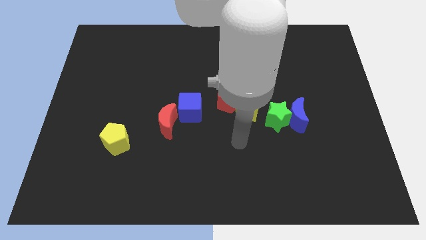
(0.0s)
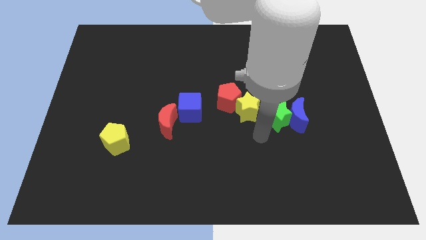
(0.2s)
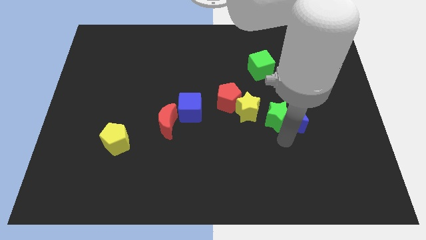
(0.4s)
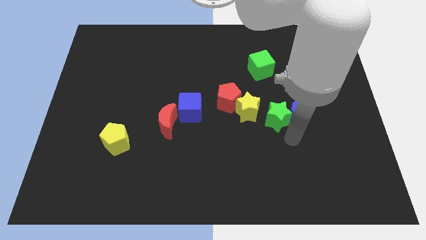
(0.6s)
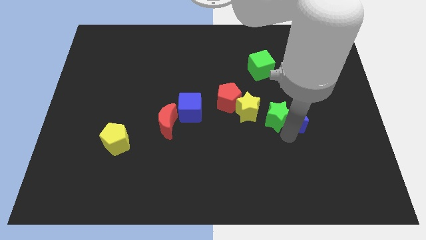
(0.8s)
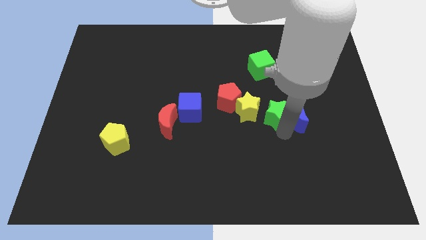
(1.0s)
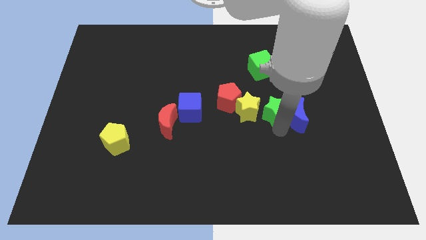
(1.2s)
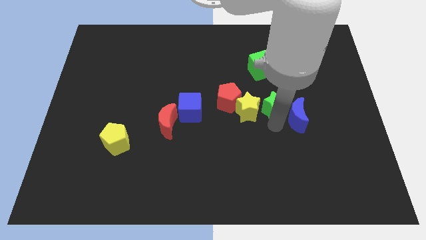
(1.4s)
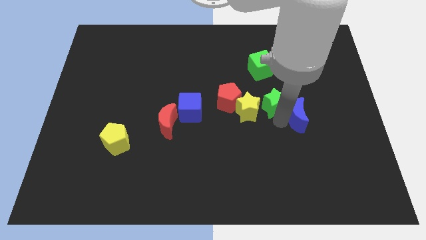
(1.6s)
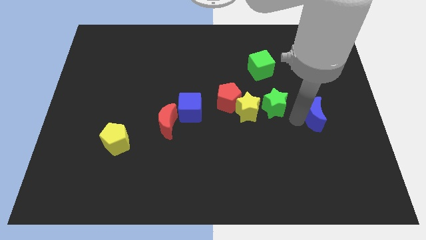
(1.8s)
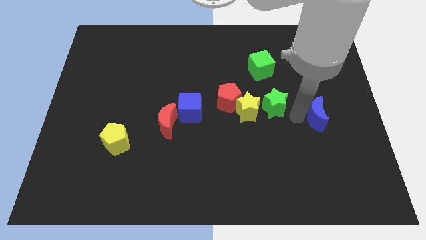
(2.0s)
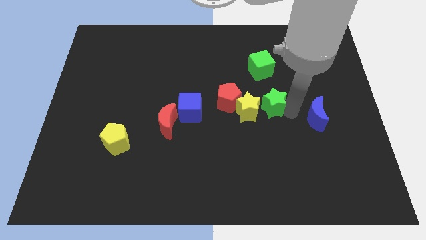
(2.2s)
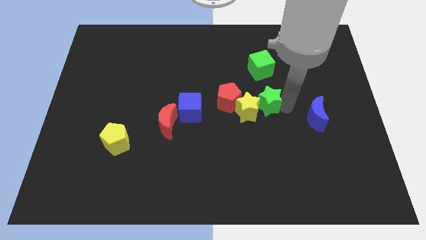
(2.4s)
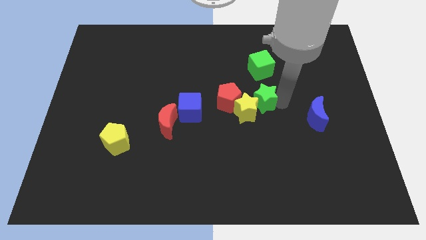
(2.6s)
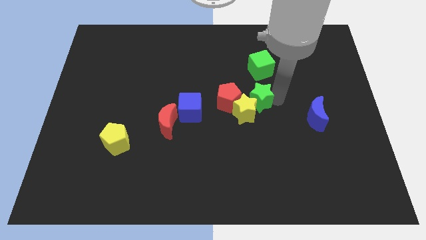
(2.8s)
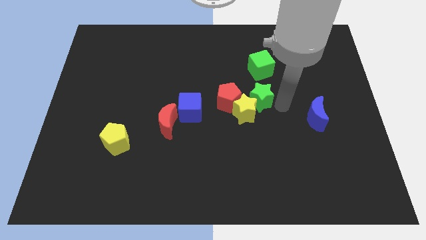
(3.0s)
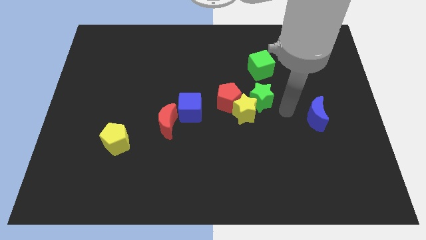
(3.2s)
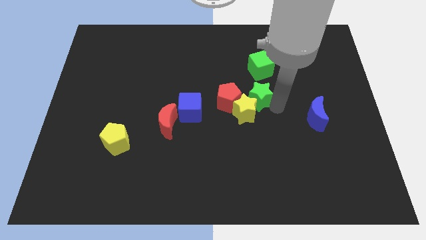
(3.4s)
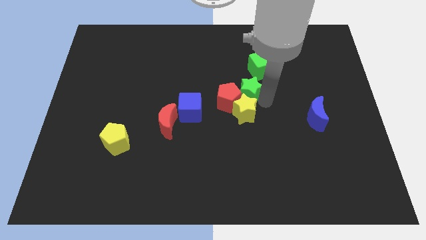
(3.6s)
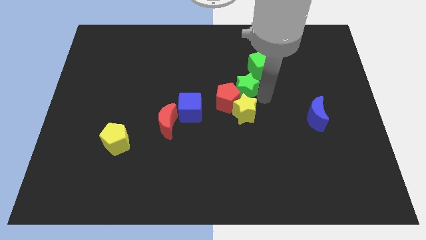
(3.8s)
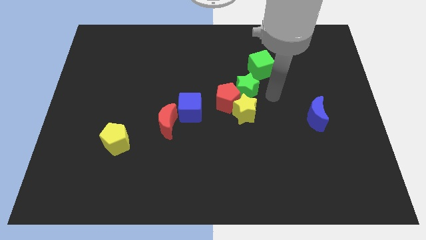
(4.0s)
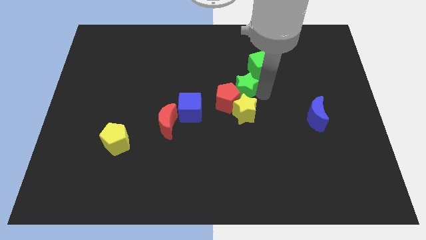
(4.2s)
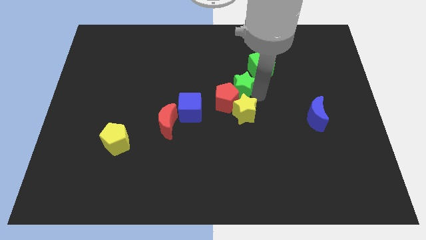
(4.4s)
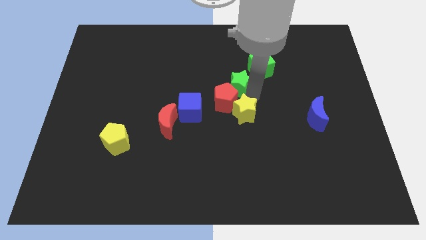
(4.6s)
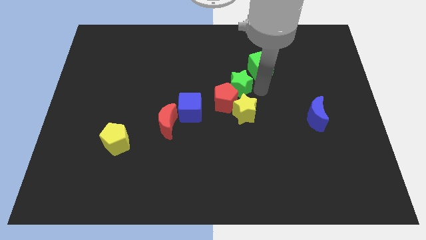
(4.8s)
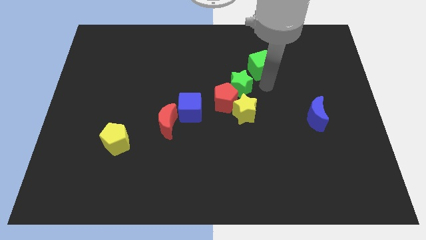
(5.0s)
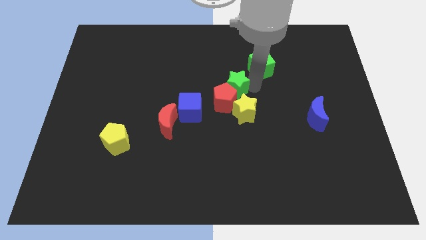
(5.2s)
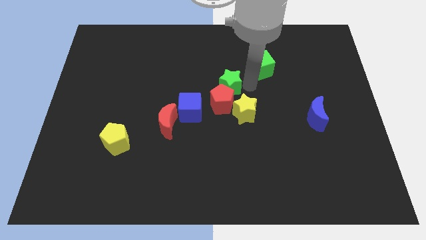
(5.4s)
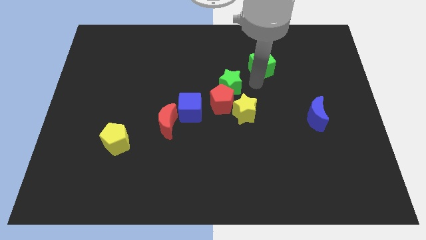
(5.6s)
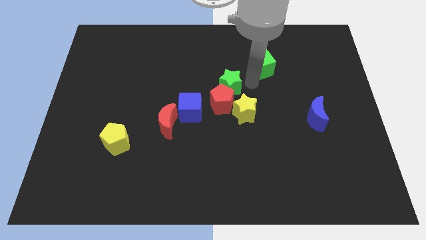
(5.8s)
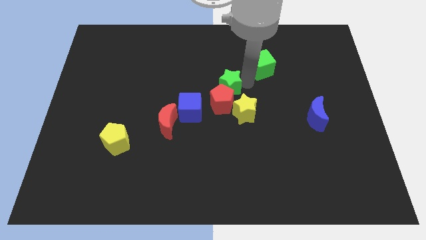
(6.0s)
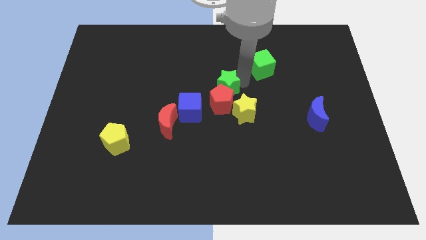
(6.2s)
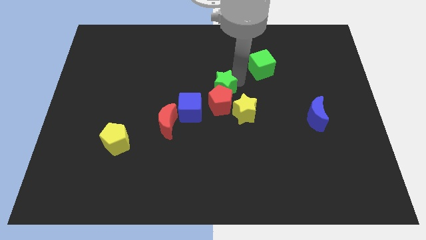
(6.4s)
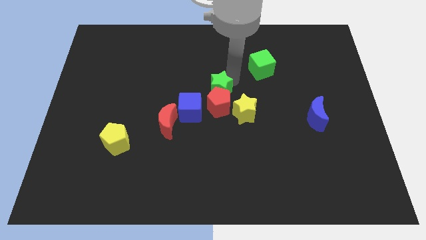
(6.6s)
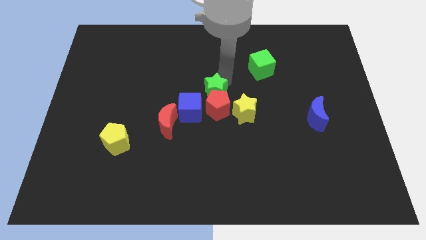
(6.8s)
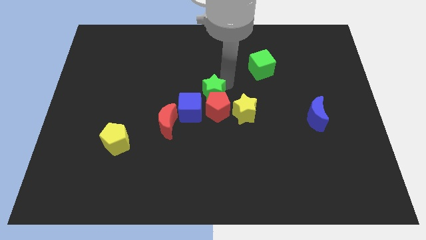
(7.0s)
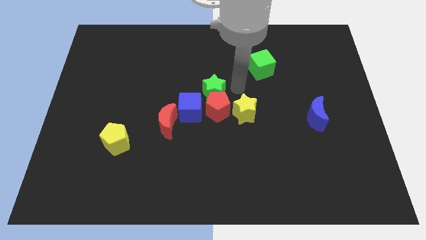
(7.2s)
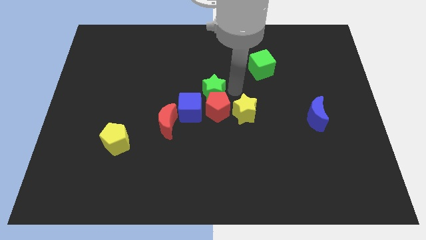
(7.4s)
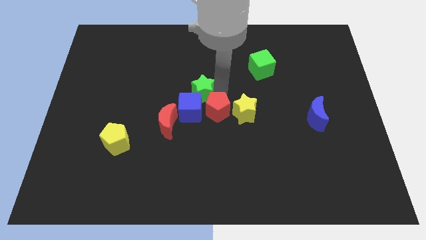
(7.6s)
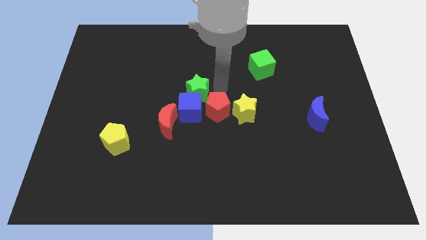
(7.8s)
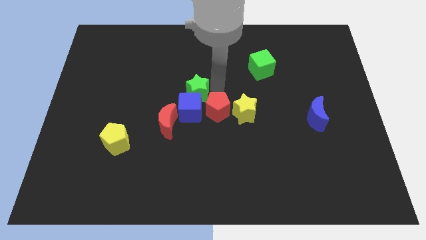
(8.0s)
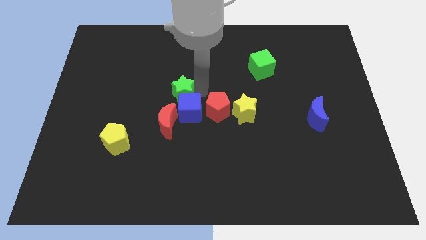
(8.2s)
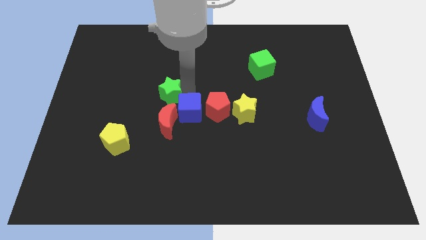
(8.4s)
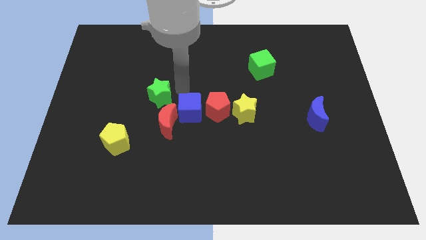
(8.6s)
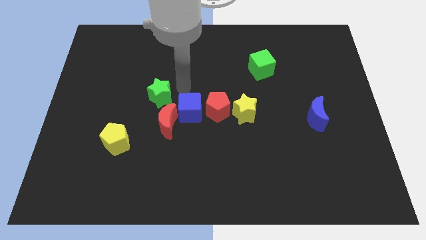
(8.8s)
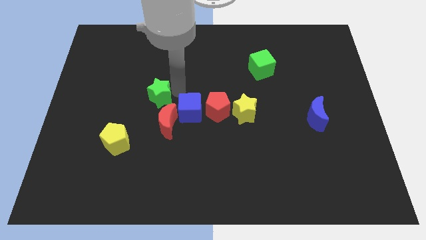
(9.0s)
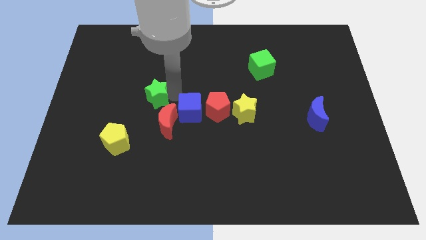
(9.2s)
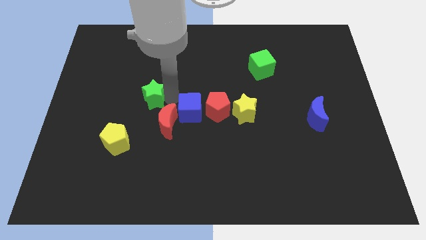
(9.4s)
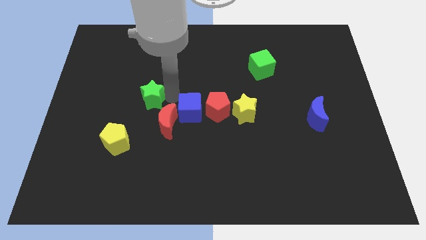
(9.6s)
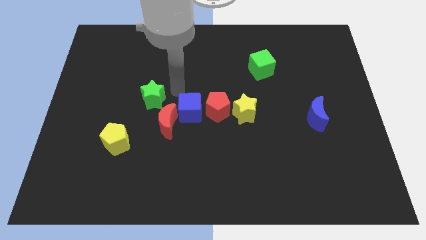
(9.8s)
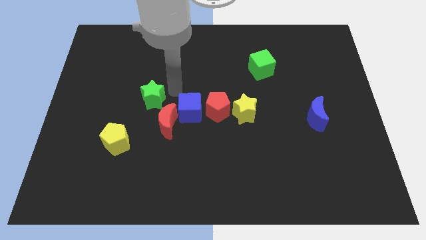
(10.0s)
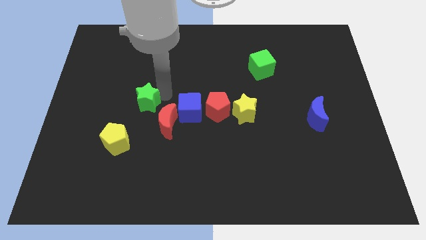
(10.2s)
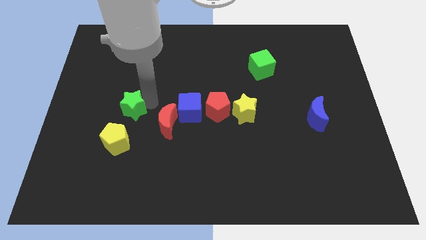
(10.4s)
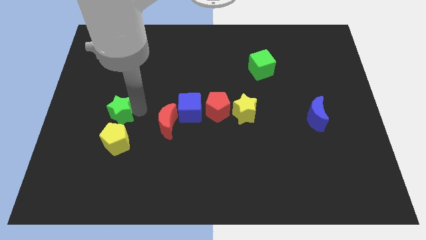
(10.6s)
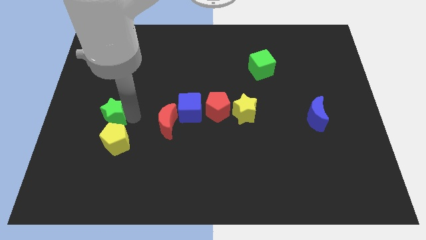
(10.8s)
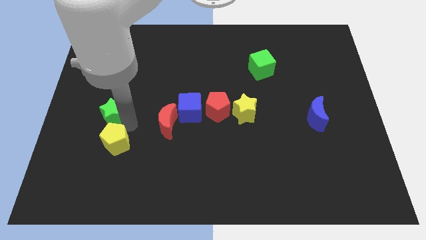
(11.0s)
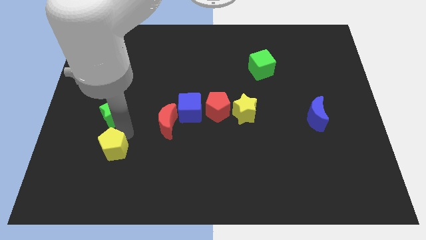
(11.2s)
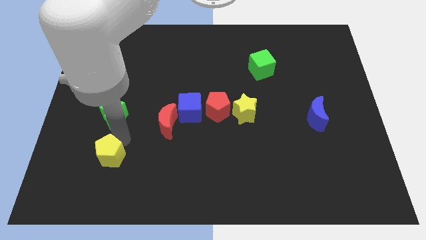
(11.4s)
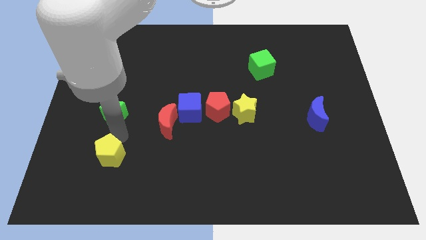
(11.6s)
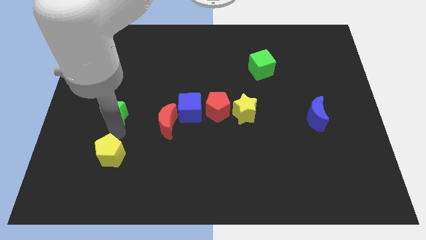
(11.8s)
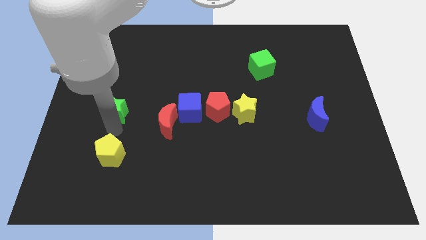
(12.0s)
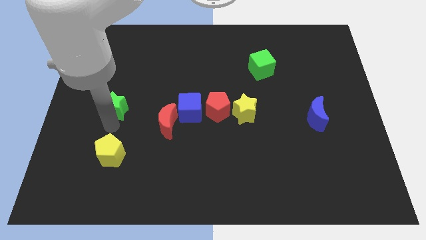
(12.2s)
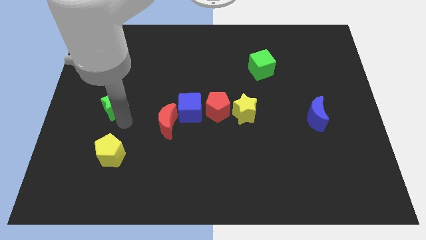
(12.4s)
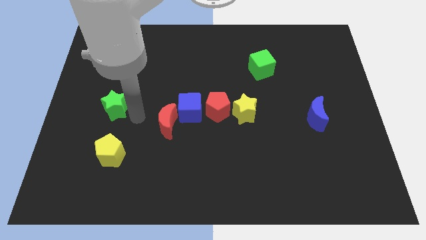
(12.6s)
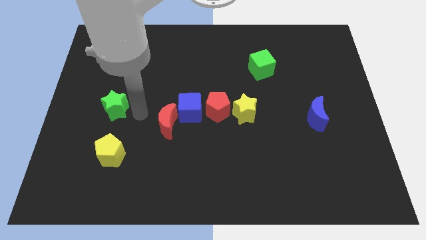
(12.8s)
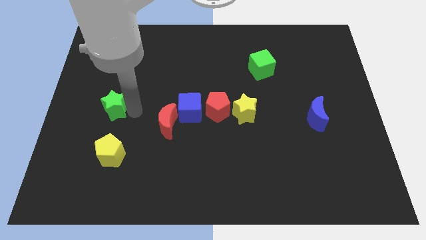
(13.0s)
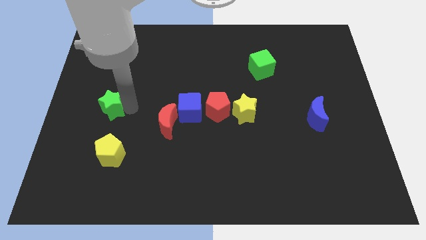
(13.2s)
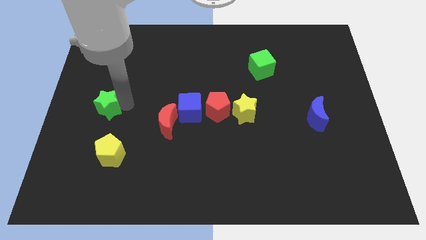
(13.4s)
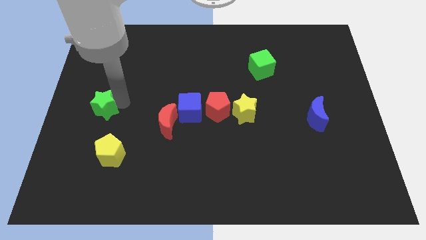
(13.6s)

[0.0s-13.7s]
slide the green star to the center left
